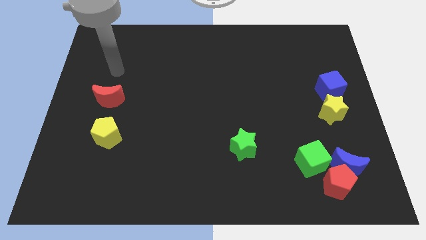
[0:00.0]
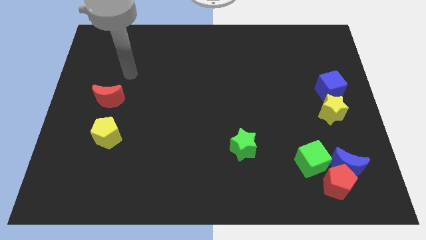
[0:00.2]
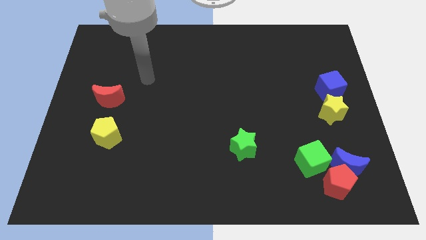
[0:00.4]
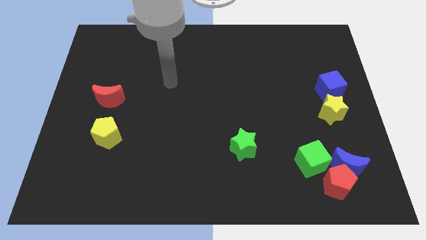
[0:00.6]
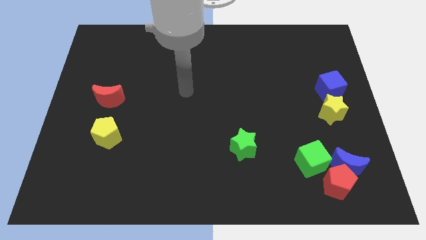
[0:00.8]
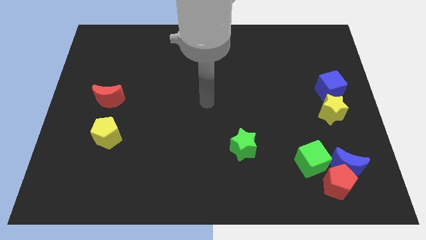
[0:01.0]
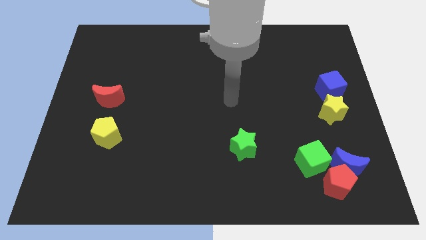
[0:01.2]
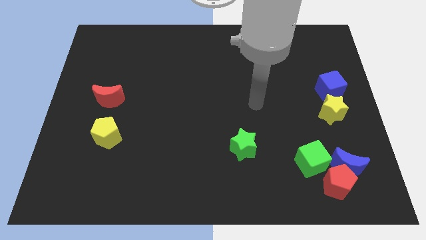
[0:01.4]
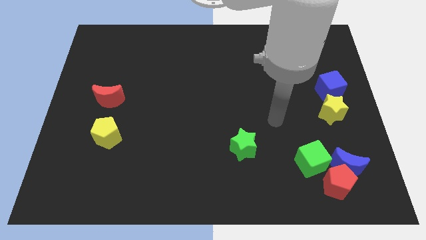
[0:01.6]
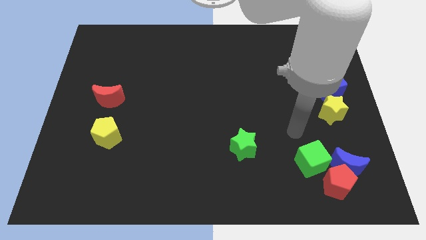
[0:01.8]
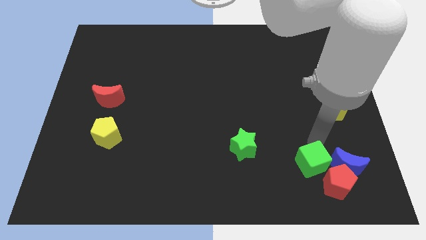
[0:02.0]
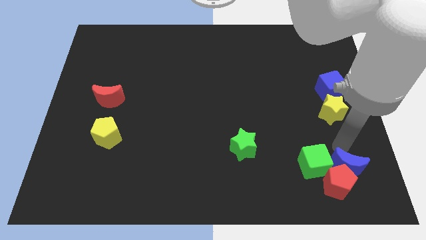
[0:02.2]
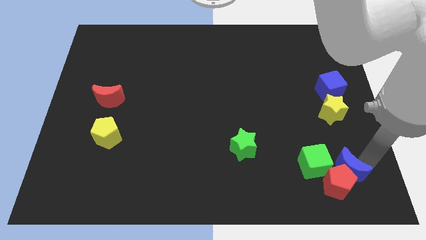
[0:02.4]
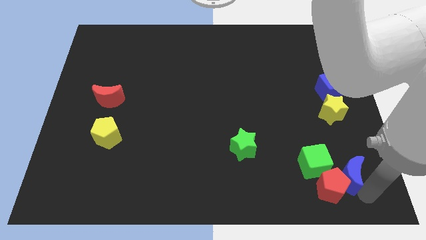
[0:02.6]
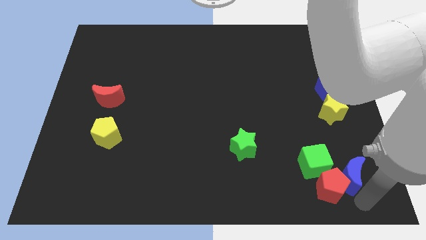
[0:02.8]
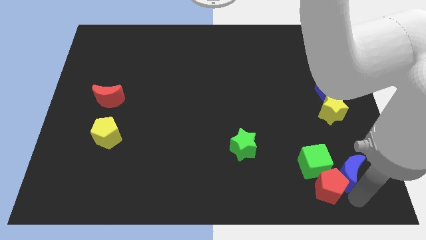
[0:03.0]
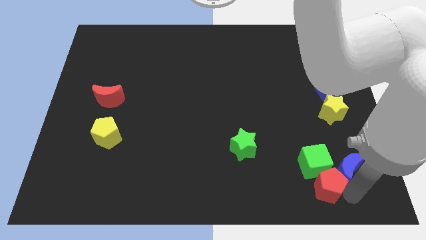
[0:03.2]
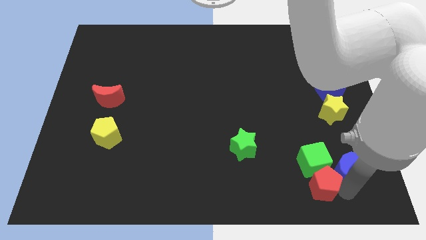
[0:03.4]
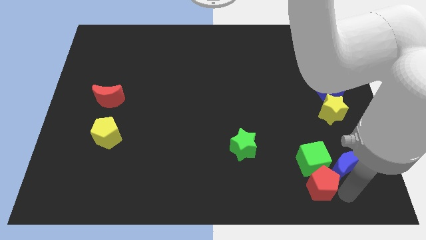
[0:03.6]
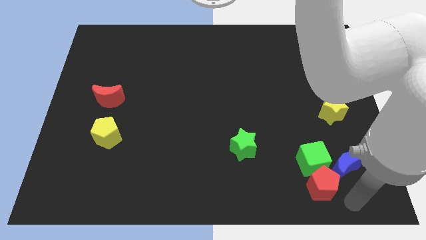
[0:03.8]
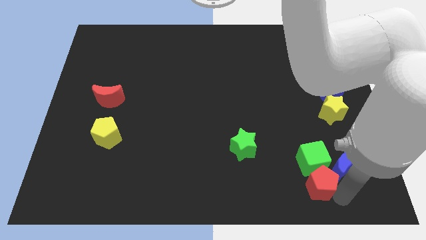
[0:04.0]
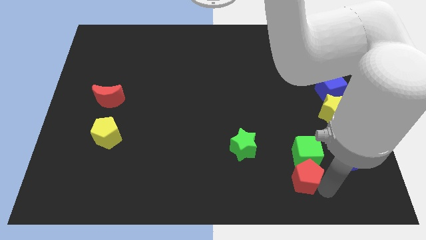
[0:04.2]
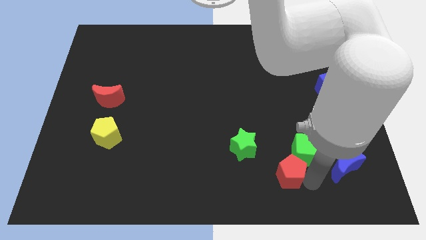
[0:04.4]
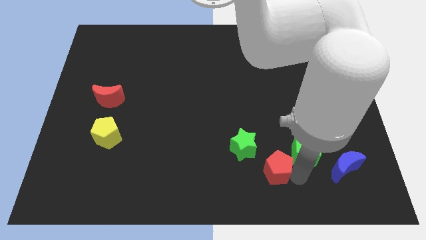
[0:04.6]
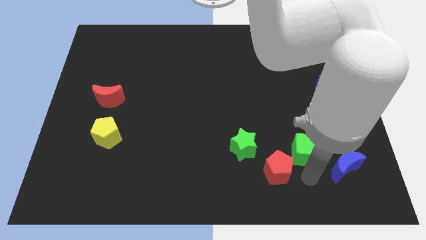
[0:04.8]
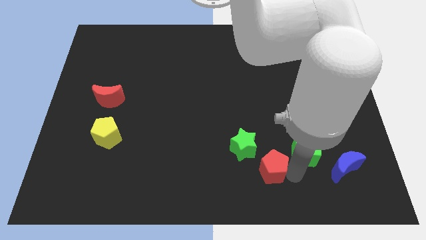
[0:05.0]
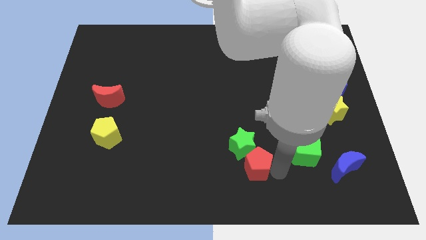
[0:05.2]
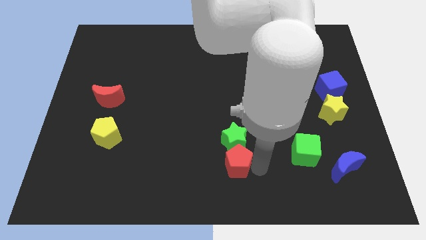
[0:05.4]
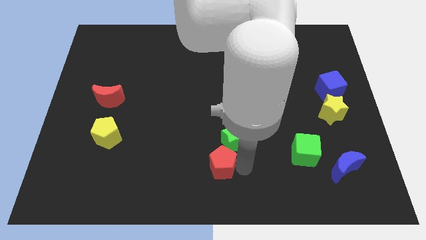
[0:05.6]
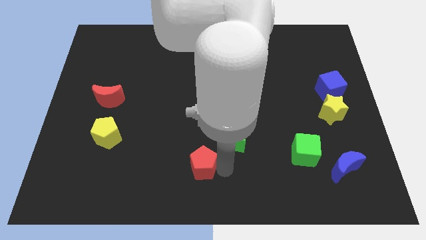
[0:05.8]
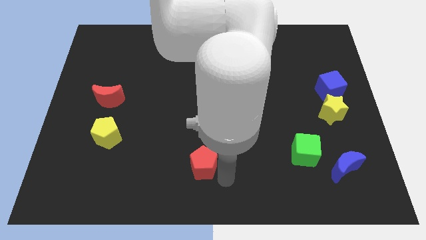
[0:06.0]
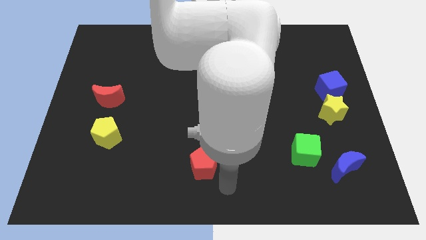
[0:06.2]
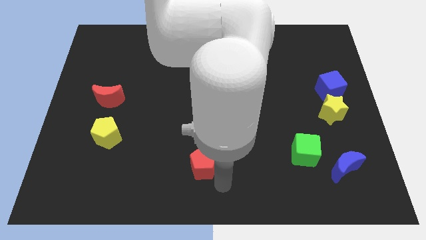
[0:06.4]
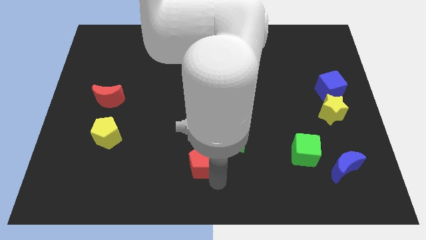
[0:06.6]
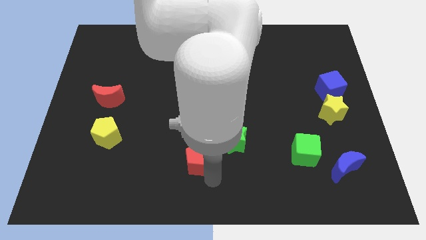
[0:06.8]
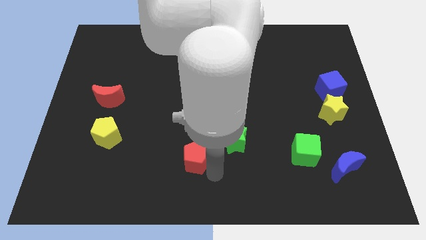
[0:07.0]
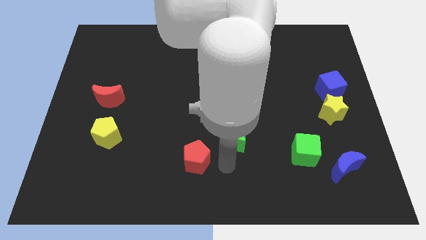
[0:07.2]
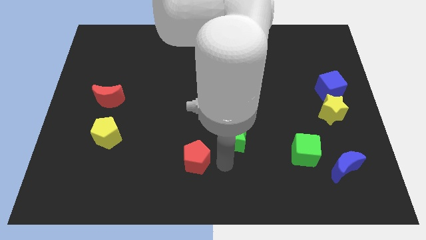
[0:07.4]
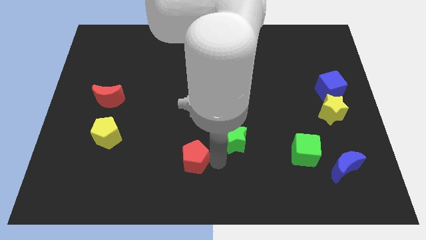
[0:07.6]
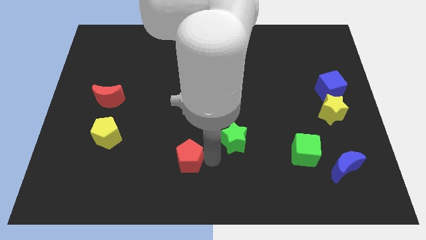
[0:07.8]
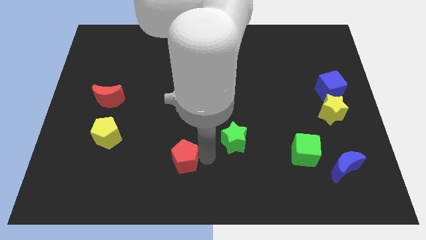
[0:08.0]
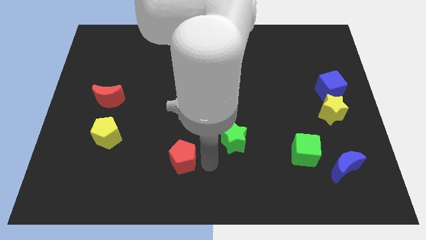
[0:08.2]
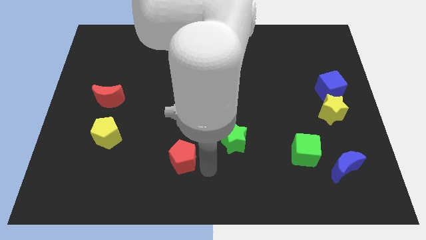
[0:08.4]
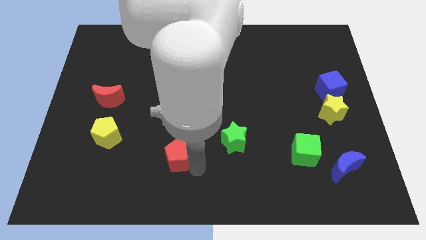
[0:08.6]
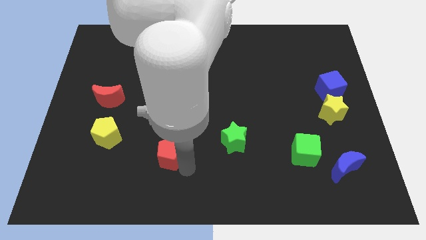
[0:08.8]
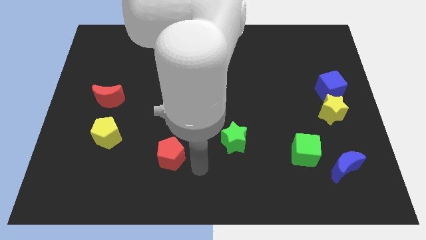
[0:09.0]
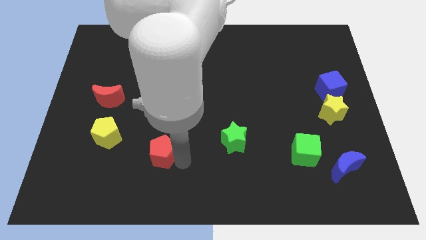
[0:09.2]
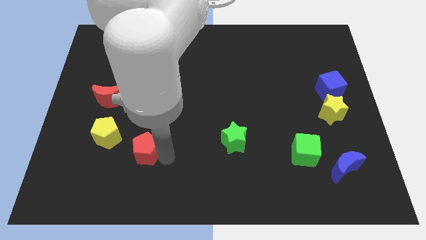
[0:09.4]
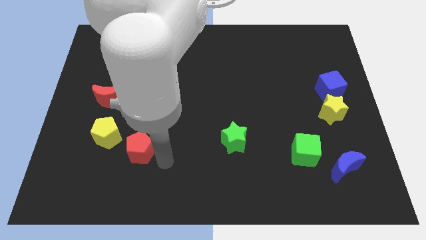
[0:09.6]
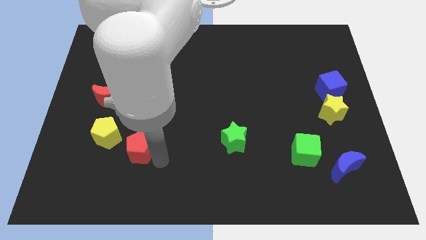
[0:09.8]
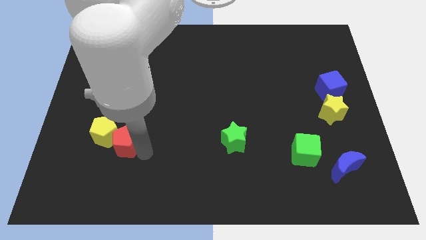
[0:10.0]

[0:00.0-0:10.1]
move the red pentagon next to the yellow pentagon

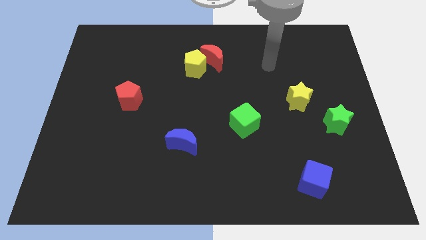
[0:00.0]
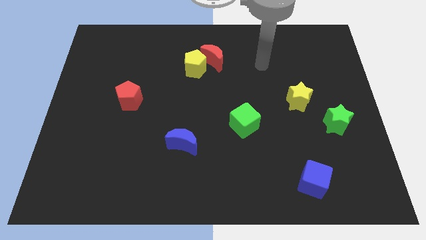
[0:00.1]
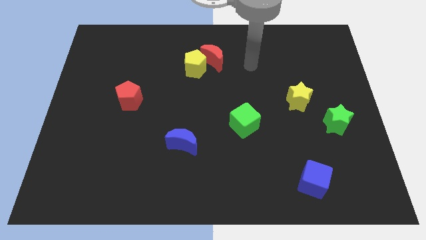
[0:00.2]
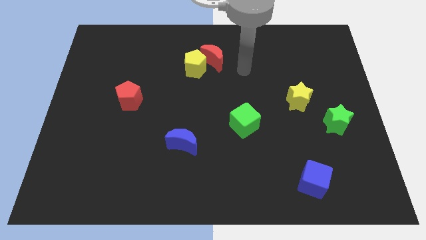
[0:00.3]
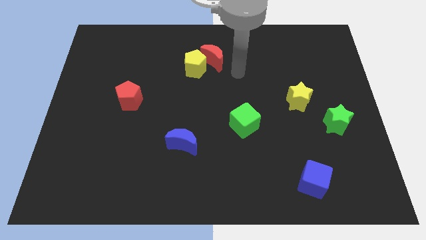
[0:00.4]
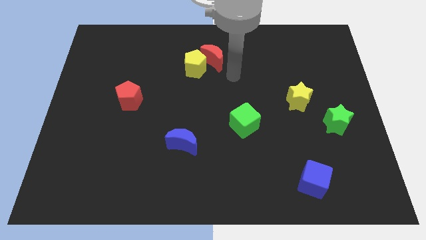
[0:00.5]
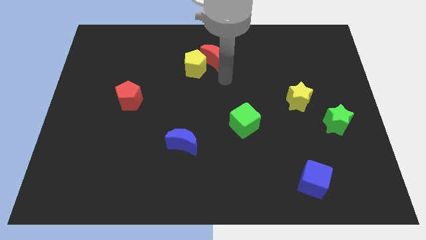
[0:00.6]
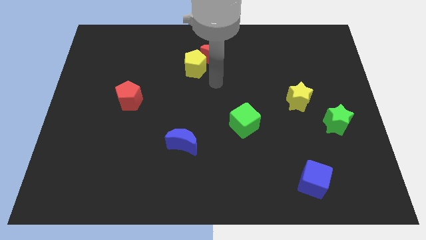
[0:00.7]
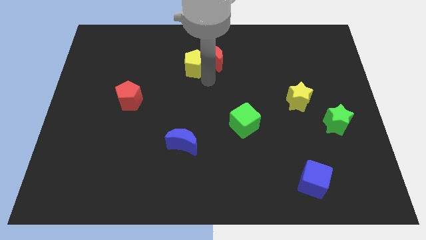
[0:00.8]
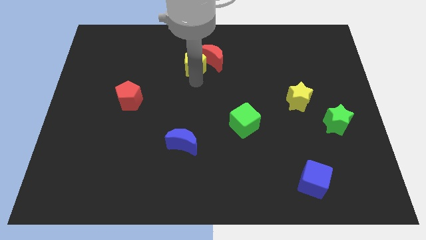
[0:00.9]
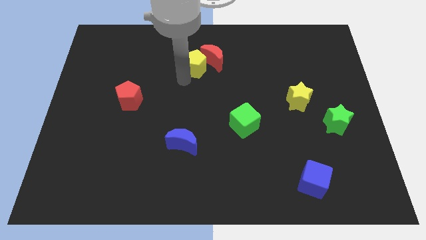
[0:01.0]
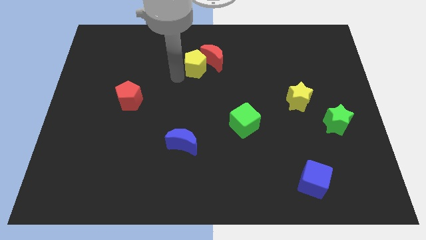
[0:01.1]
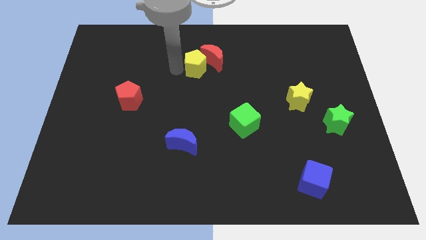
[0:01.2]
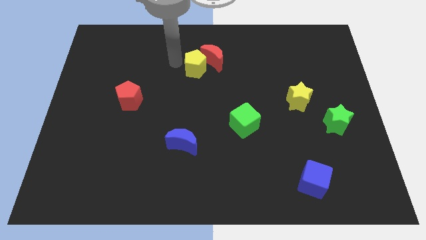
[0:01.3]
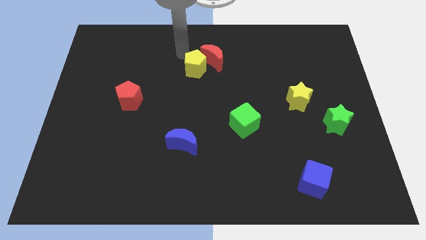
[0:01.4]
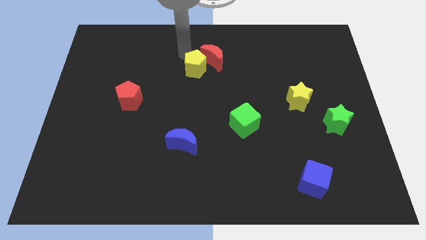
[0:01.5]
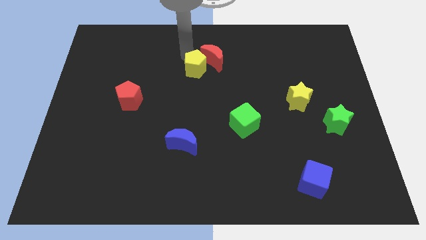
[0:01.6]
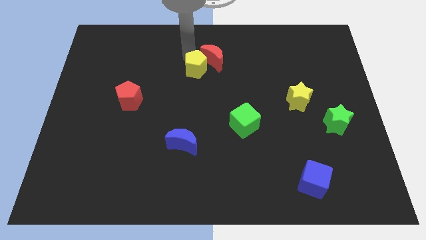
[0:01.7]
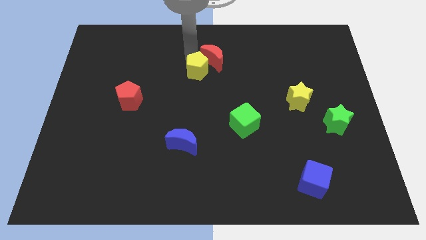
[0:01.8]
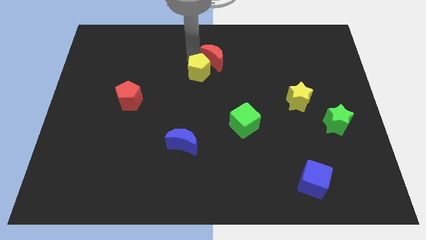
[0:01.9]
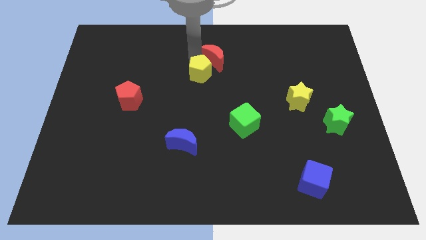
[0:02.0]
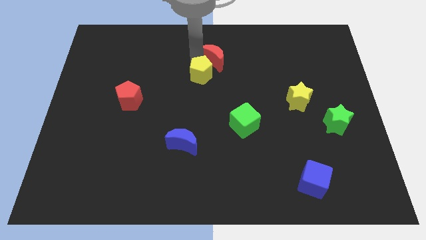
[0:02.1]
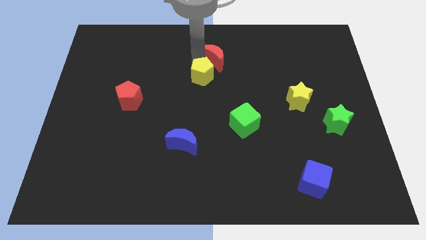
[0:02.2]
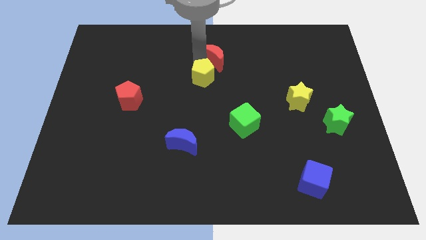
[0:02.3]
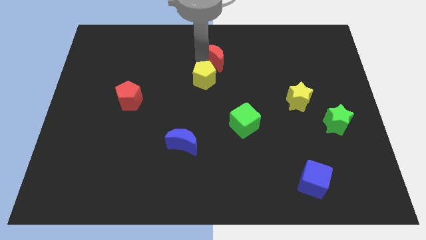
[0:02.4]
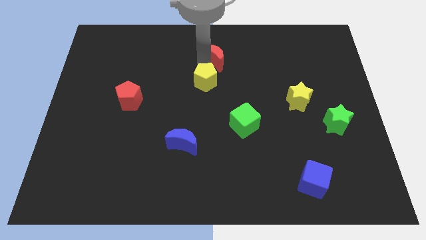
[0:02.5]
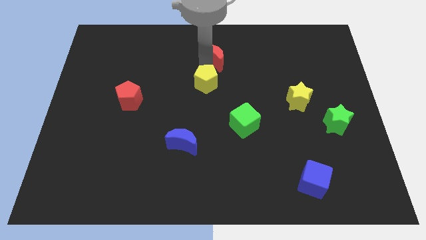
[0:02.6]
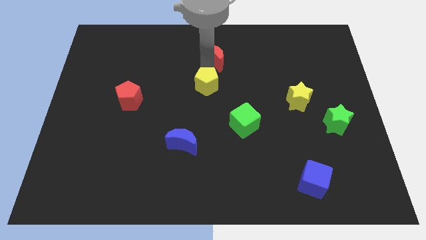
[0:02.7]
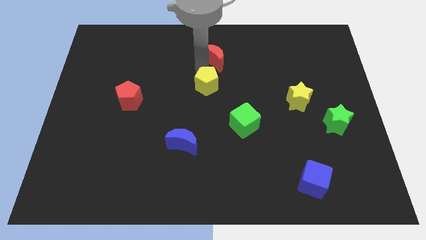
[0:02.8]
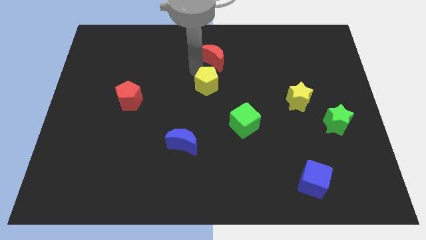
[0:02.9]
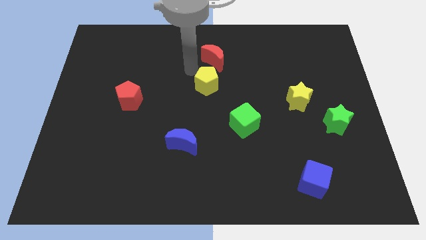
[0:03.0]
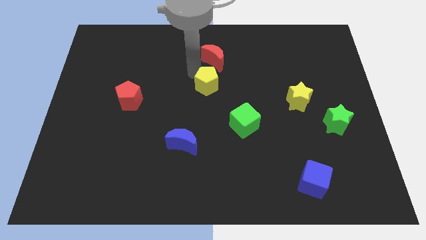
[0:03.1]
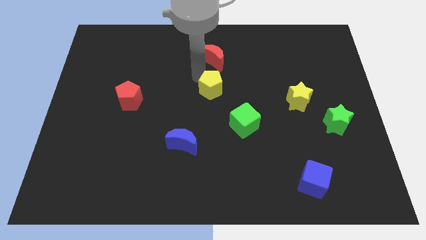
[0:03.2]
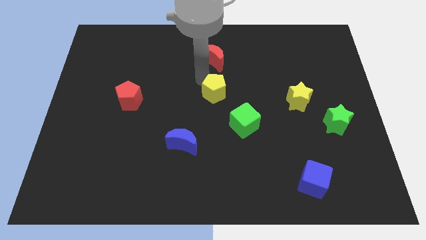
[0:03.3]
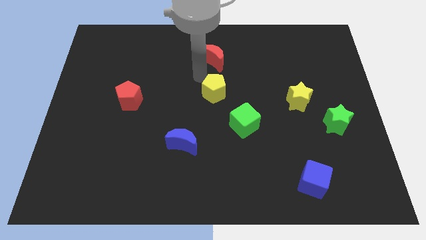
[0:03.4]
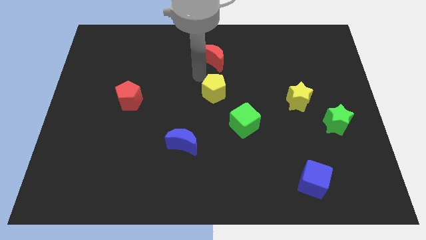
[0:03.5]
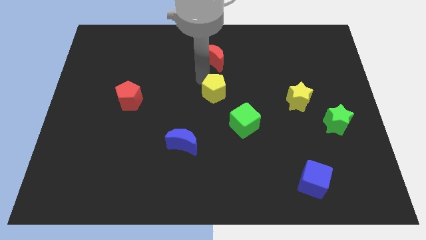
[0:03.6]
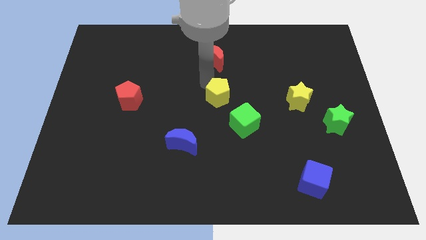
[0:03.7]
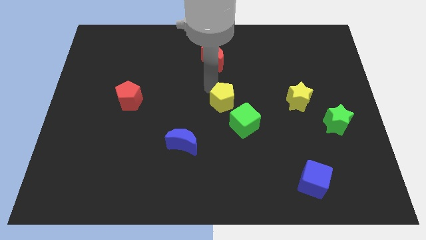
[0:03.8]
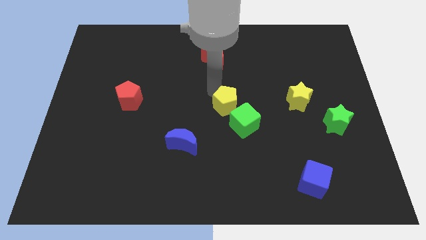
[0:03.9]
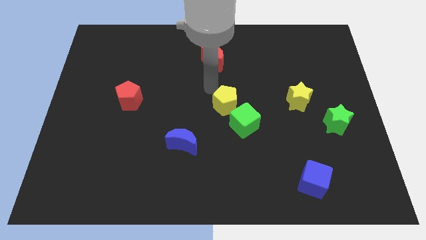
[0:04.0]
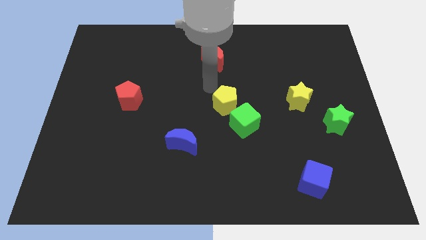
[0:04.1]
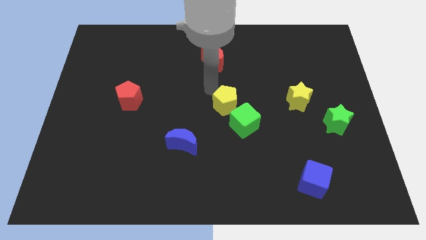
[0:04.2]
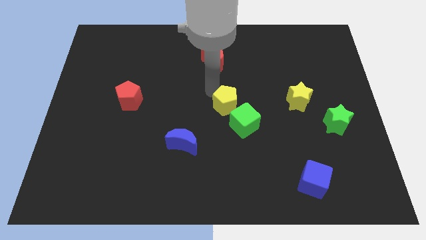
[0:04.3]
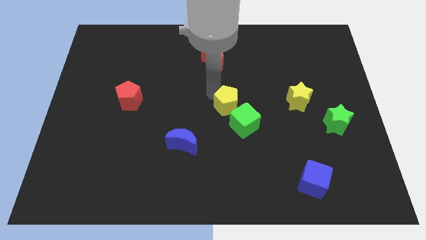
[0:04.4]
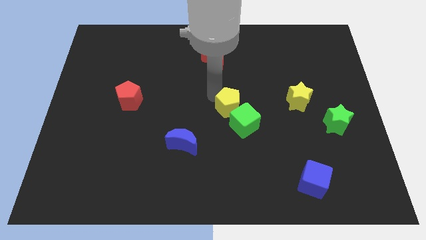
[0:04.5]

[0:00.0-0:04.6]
slide the yellow pentagon towards the green cube
